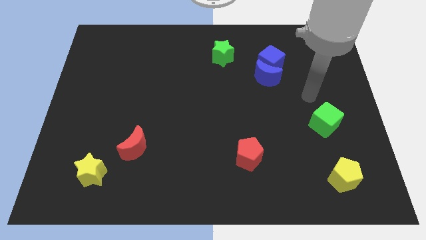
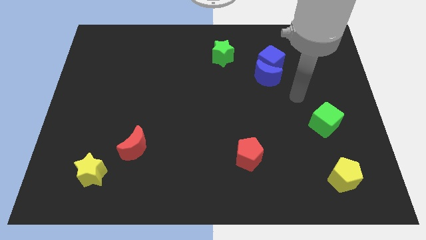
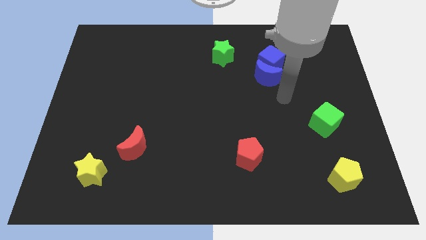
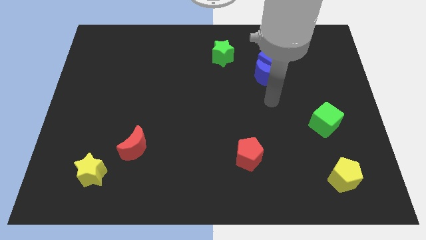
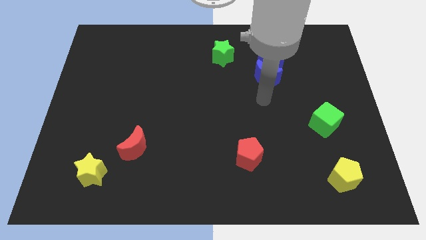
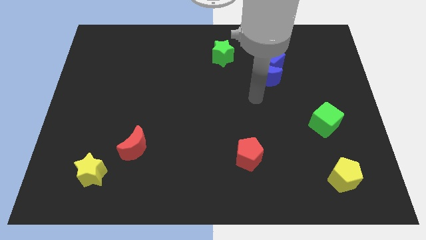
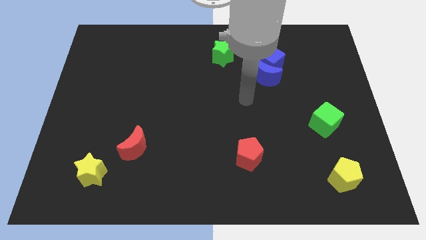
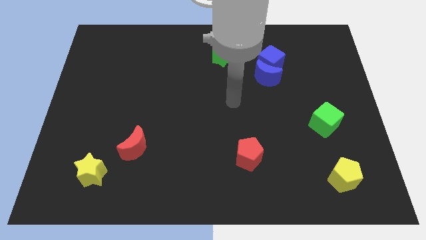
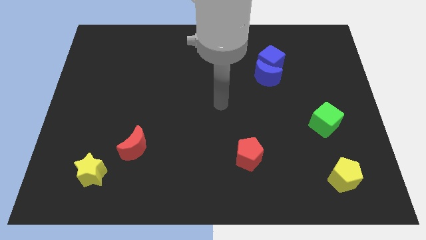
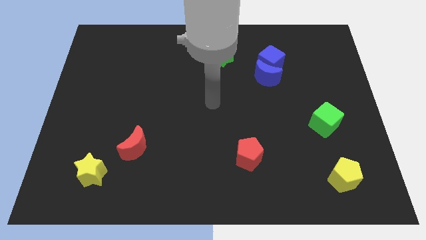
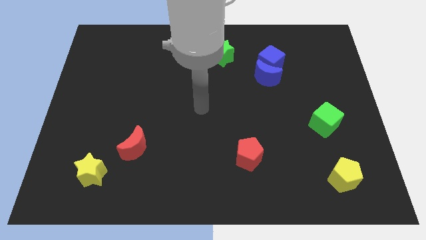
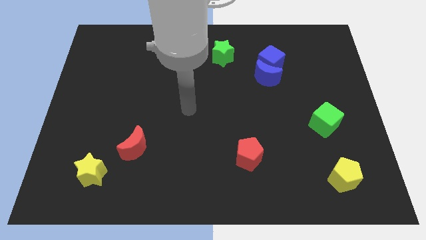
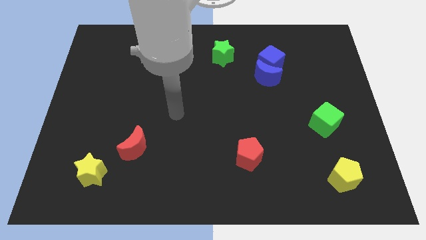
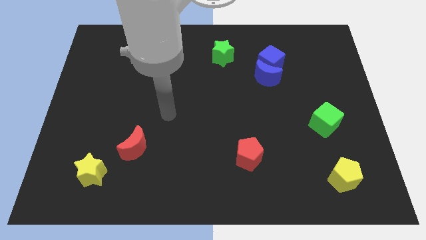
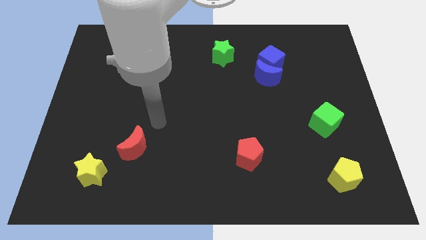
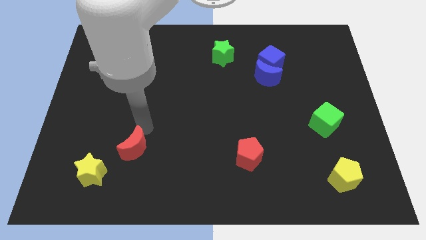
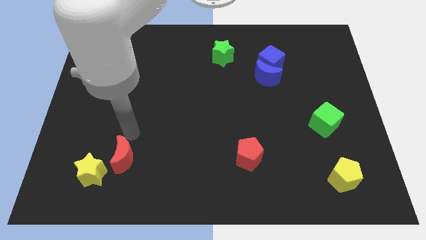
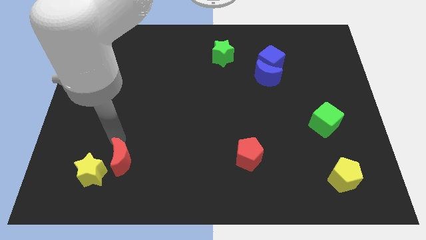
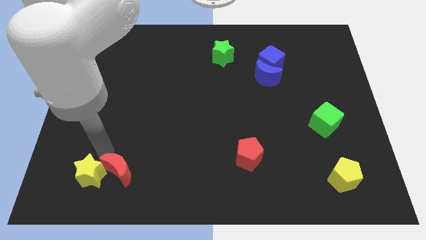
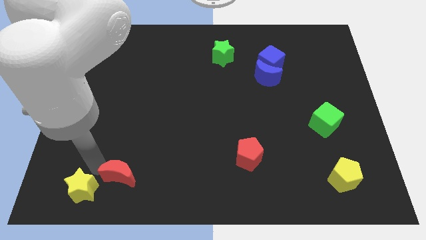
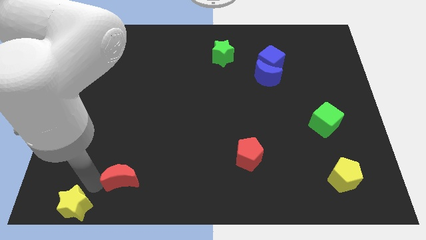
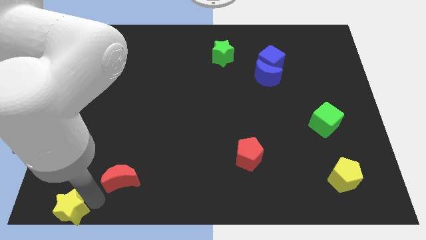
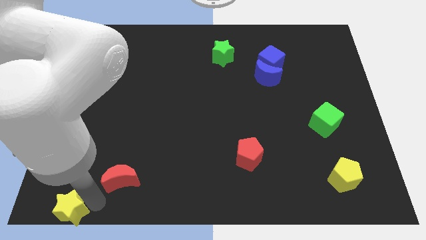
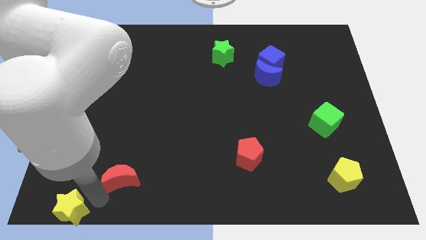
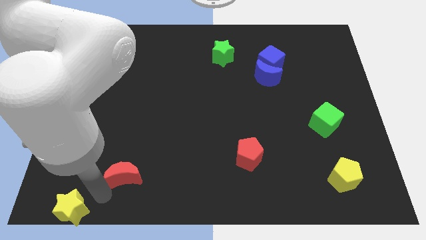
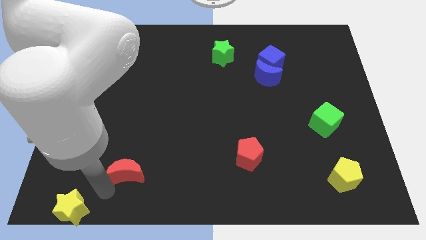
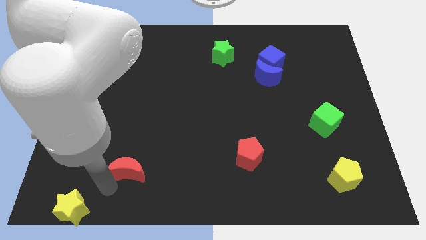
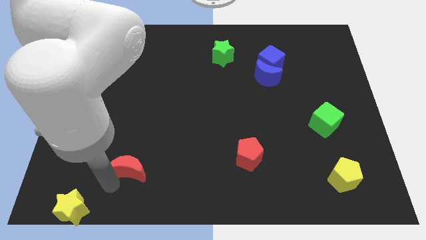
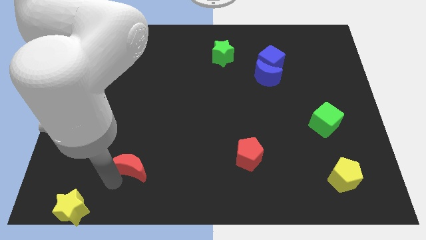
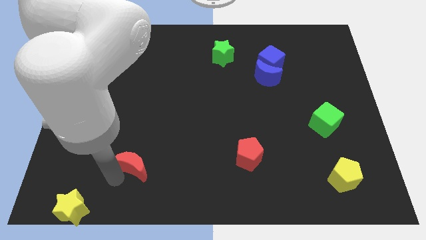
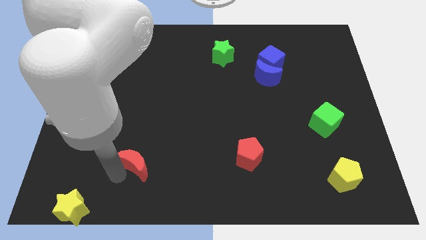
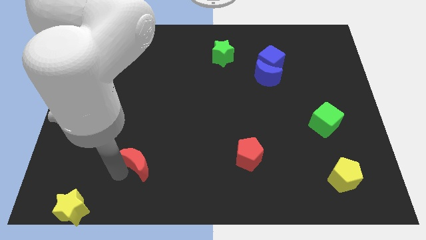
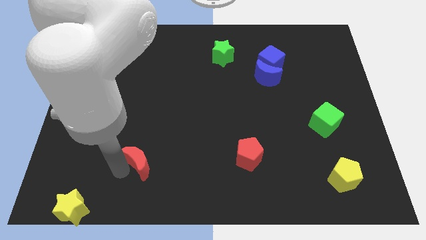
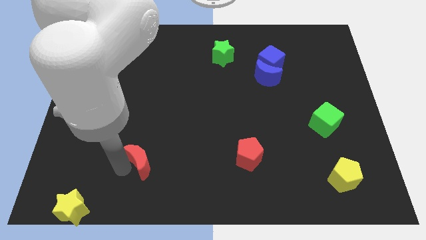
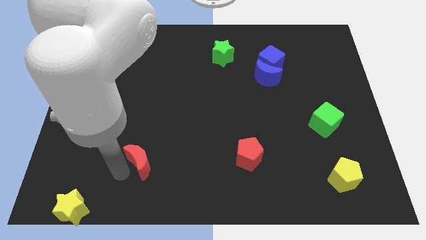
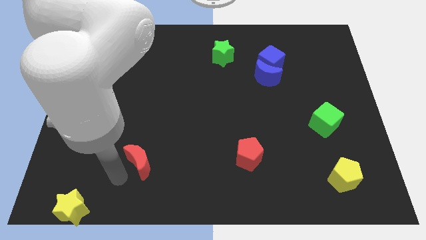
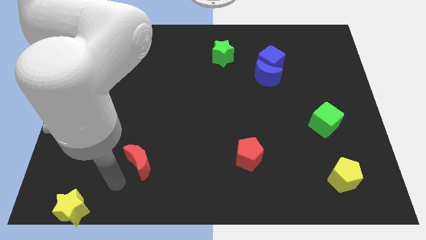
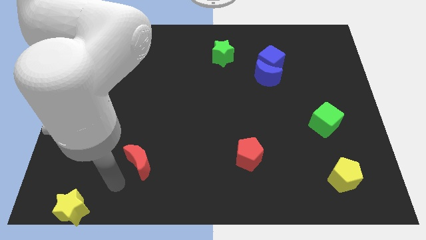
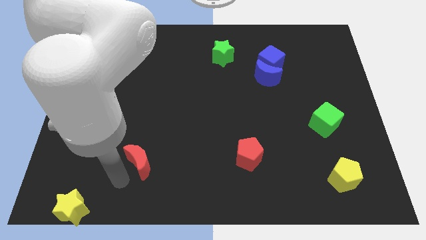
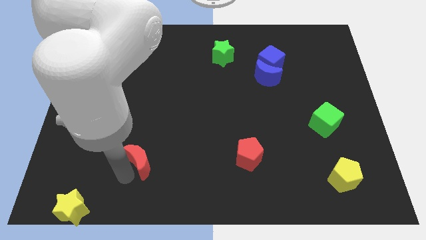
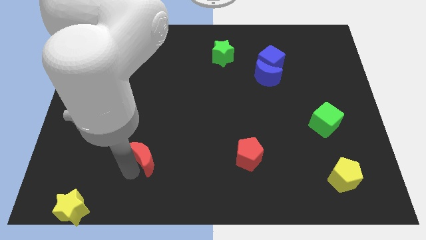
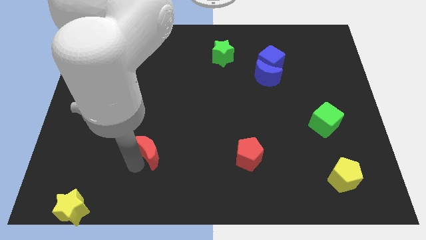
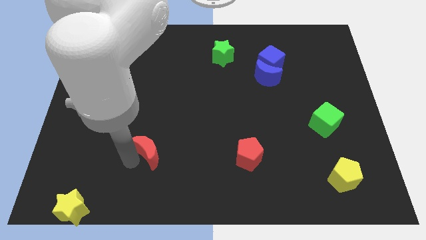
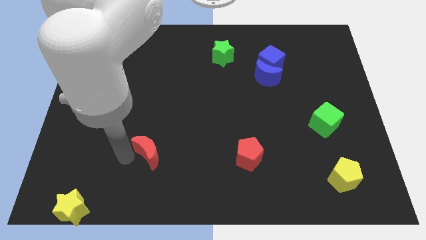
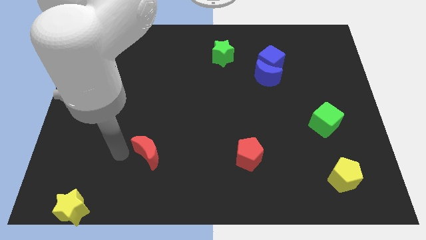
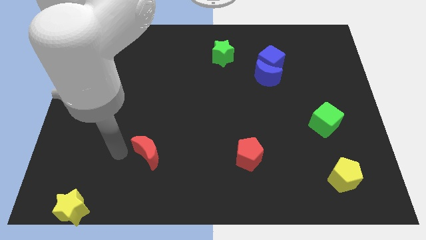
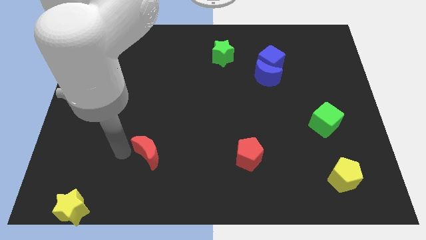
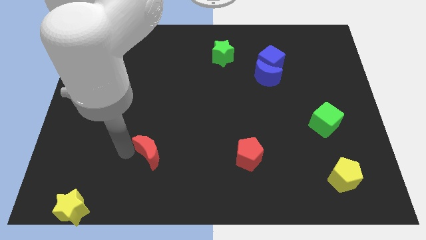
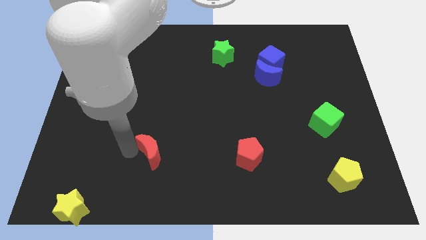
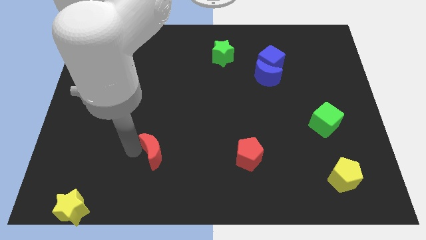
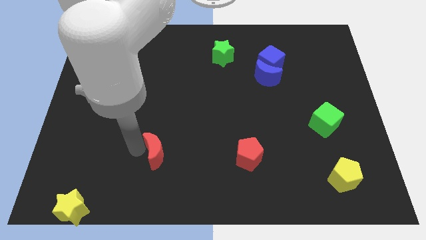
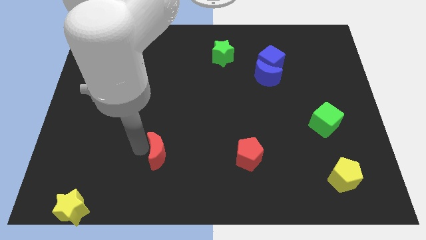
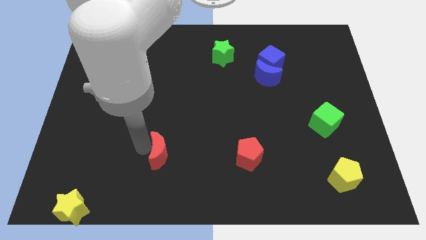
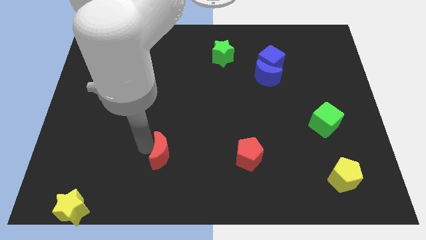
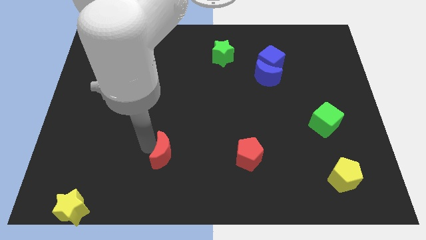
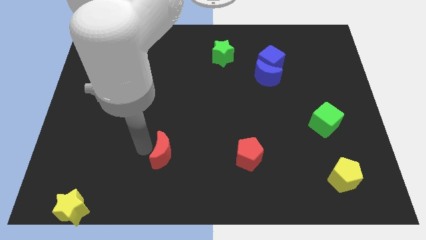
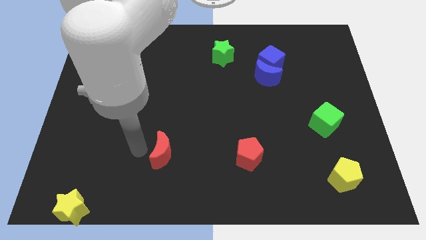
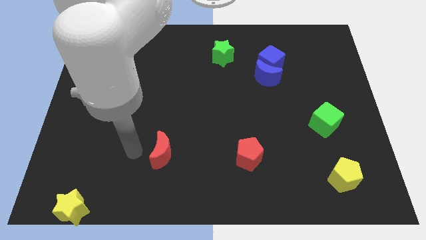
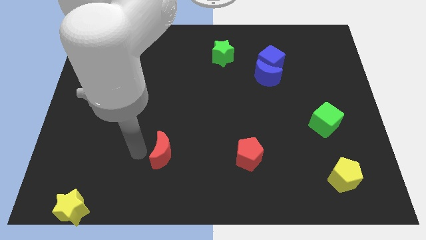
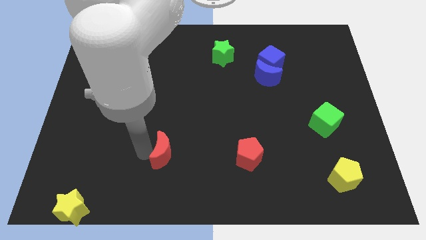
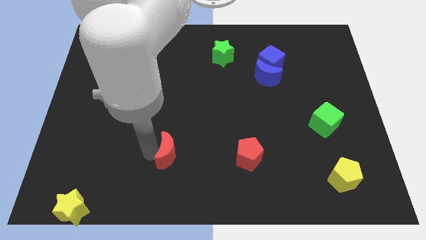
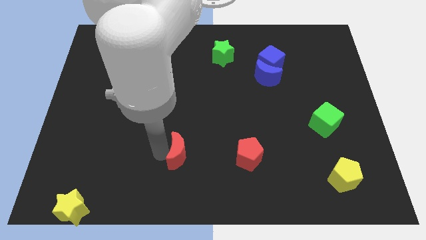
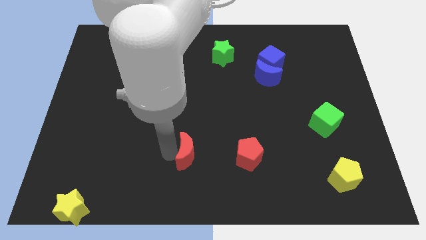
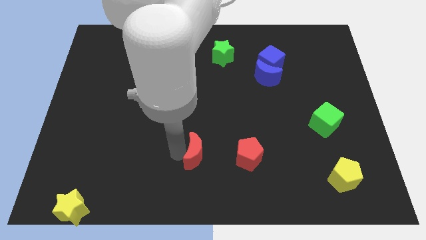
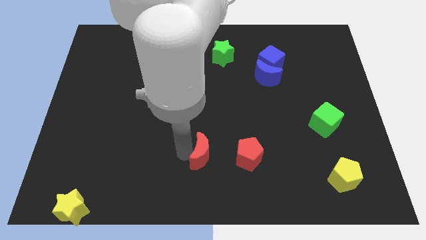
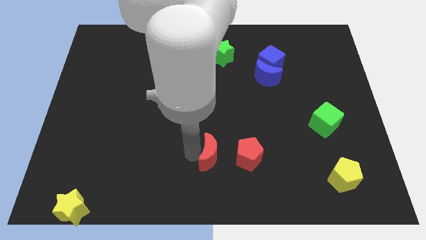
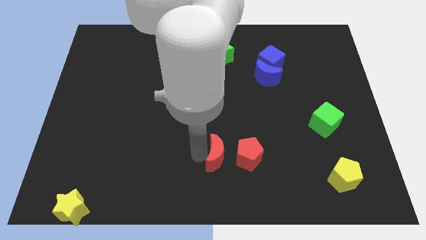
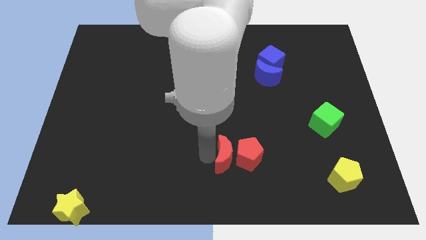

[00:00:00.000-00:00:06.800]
push the red moon close to the red pentagon
